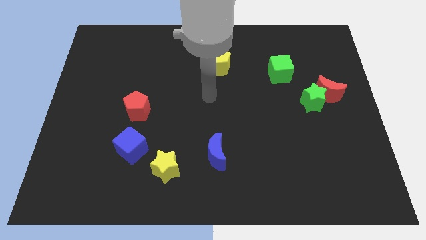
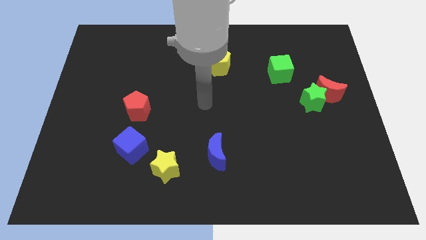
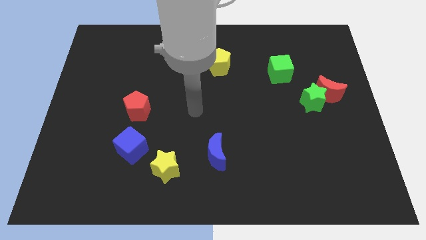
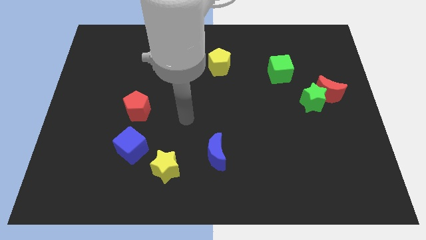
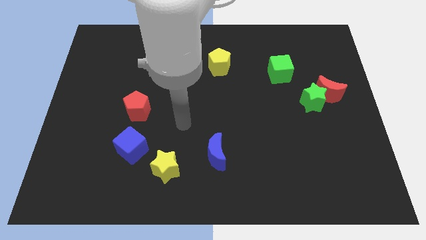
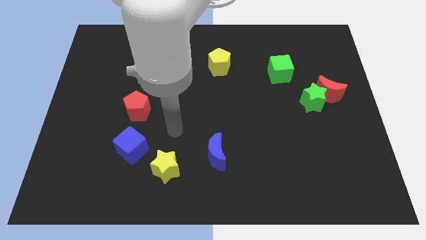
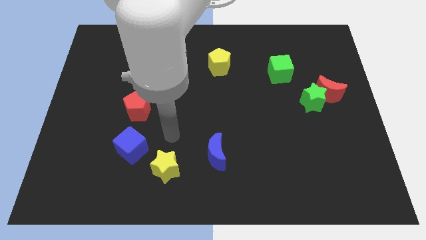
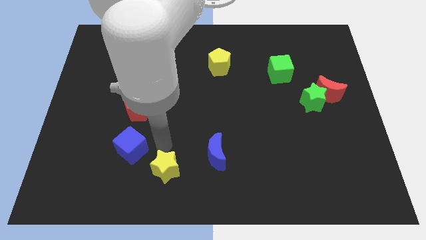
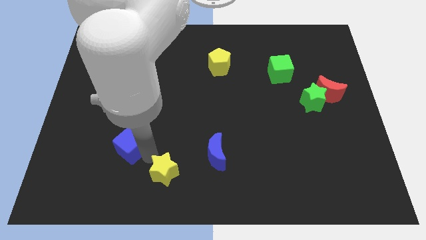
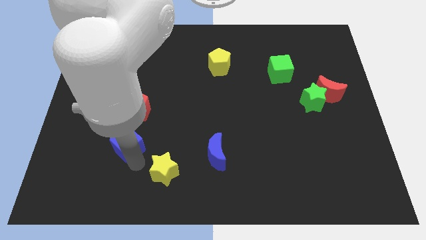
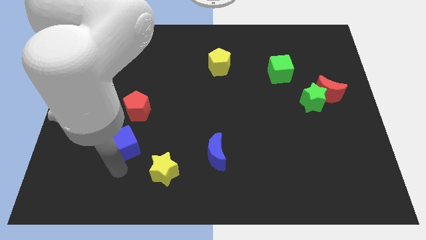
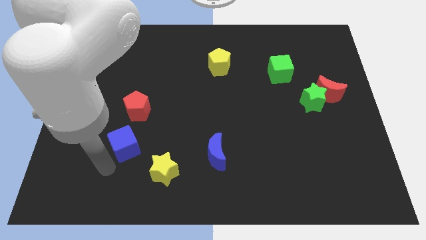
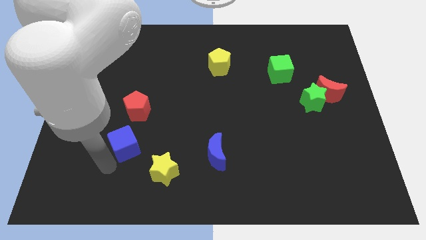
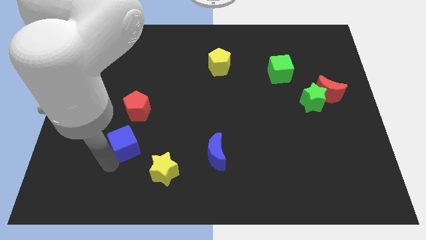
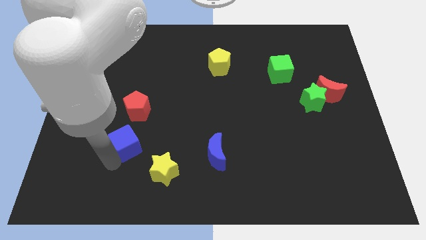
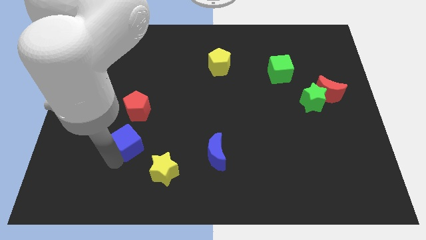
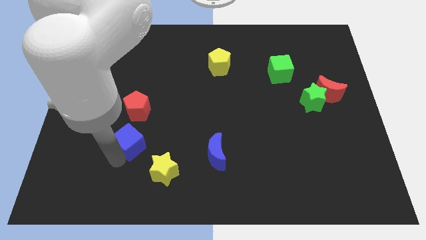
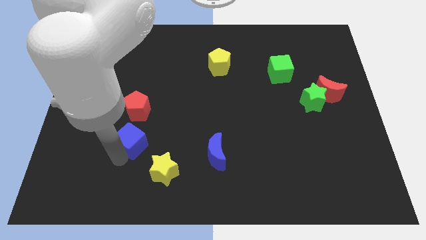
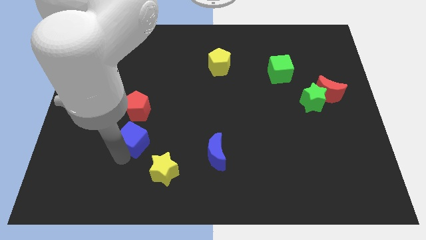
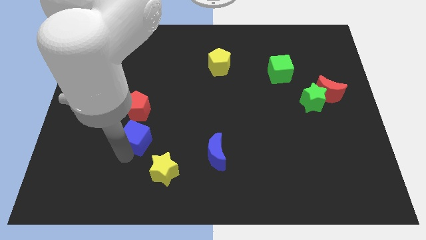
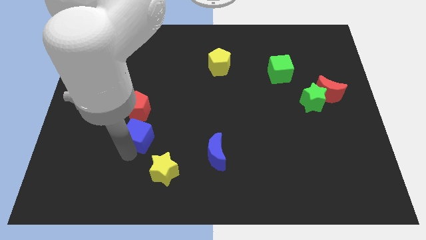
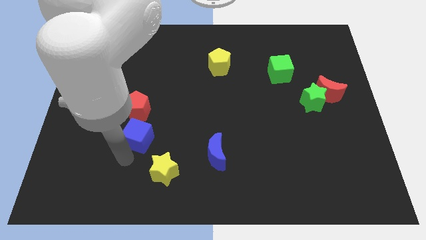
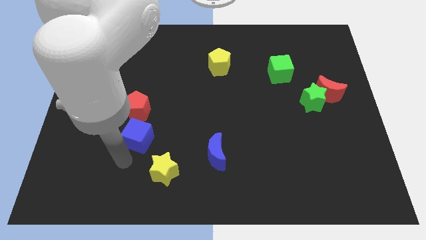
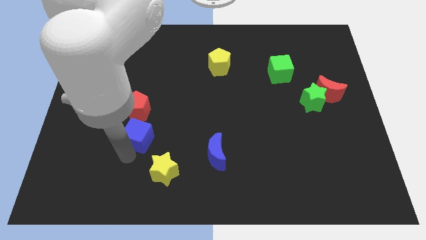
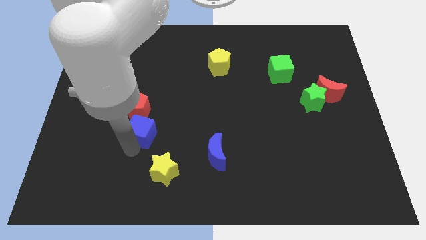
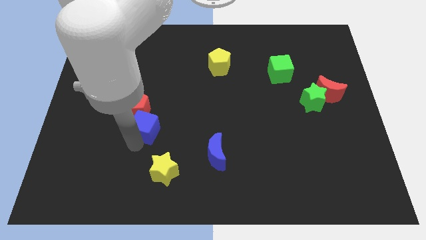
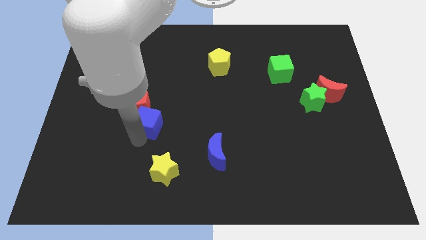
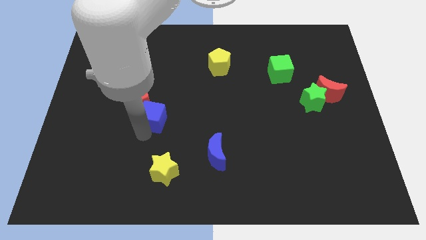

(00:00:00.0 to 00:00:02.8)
move the blue cube up somewhat

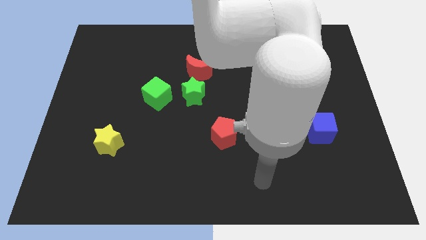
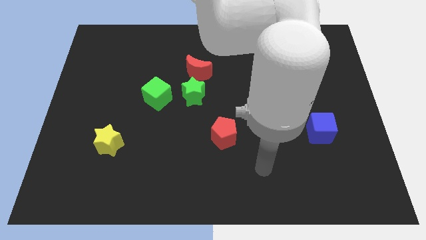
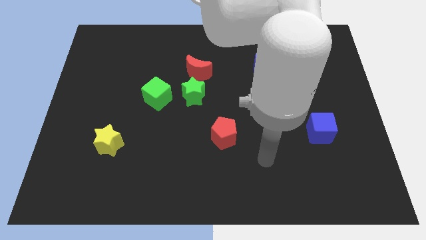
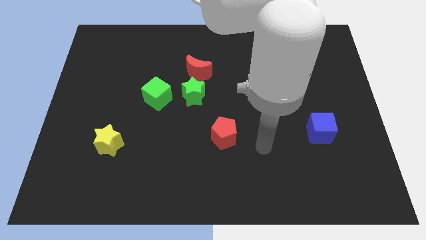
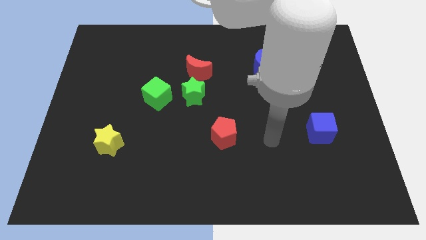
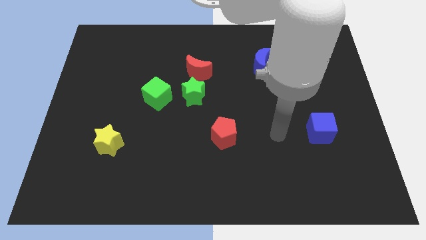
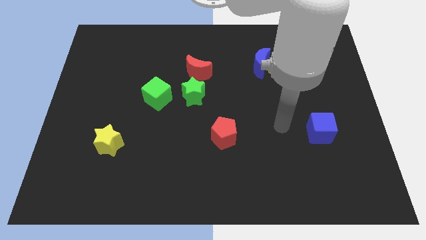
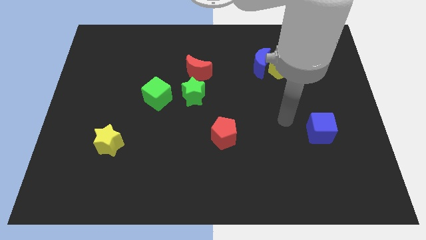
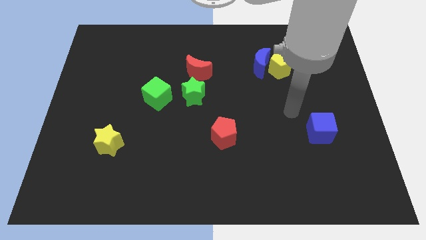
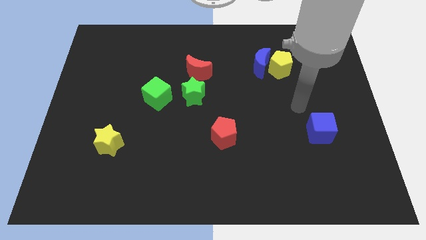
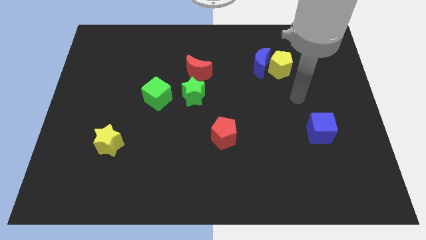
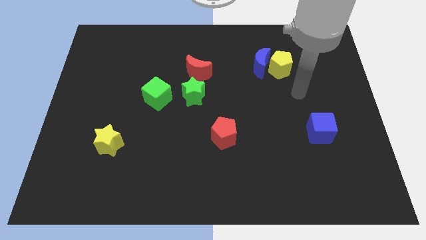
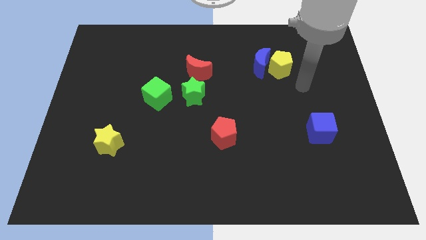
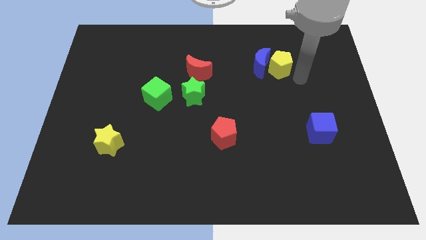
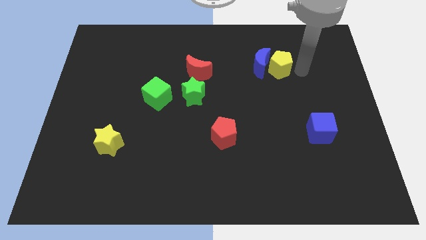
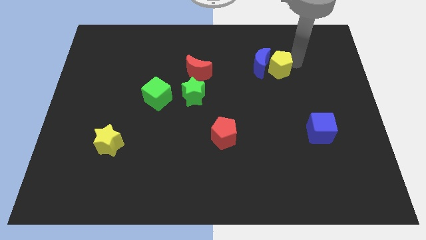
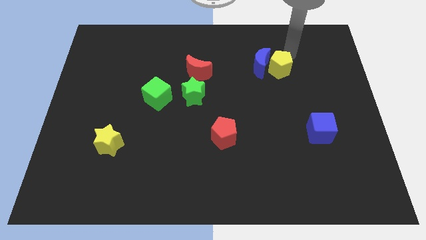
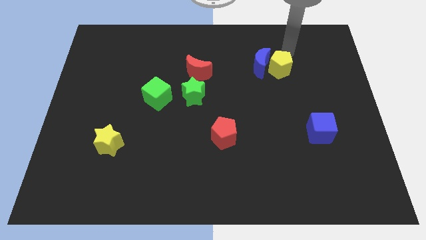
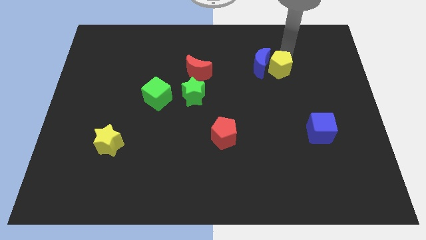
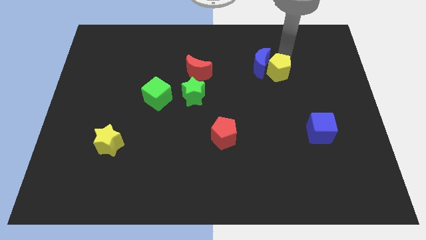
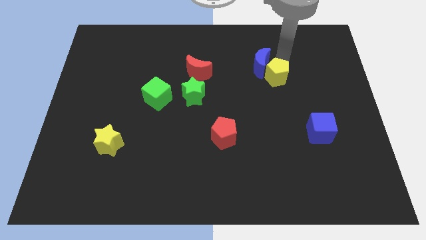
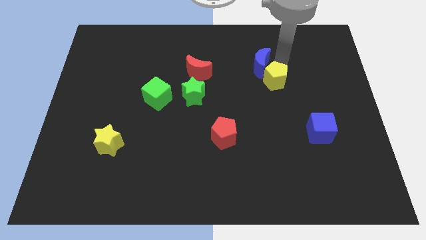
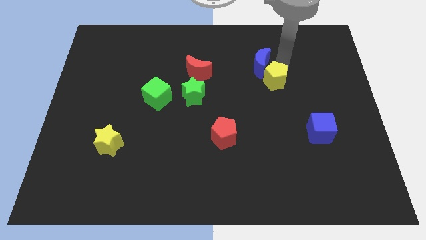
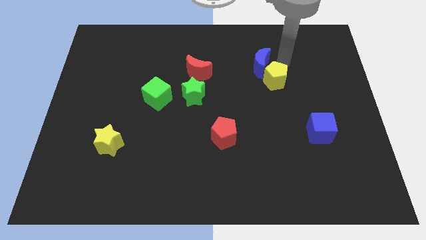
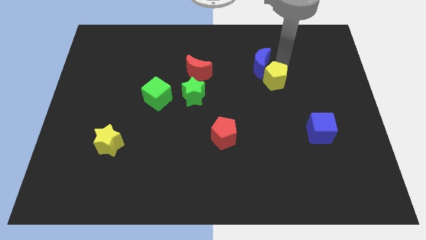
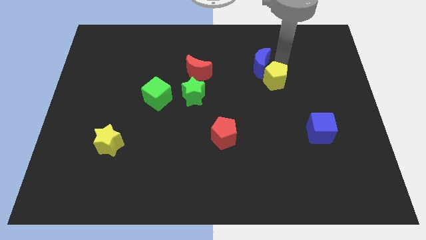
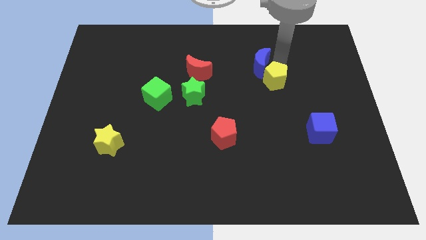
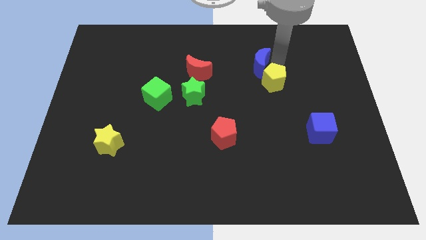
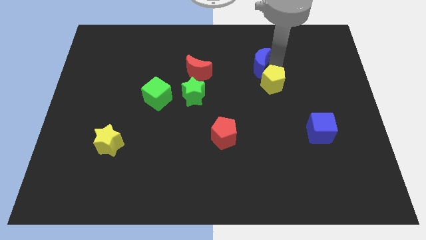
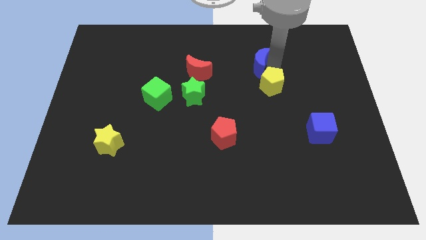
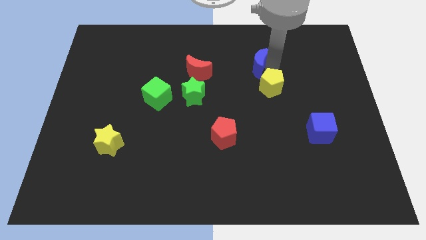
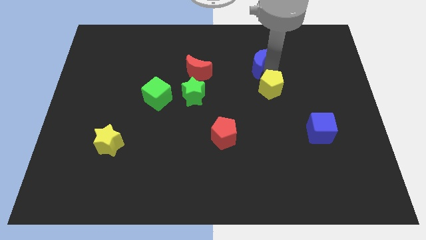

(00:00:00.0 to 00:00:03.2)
slide the yellow pentagon downwards and to the left a bit

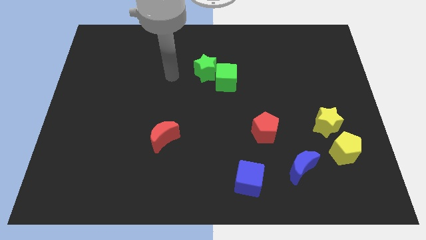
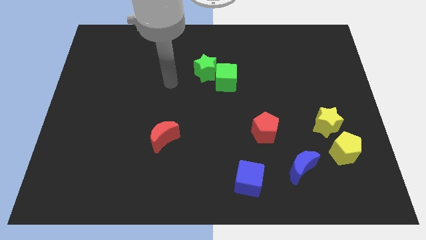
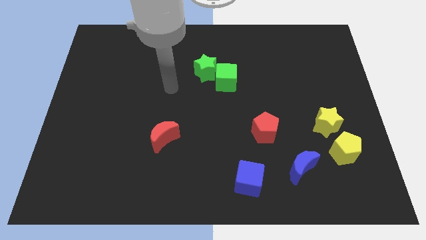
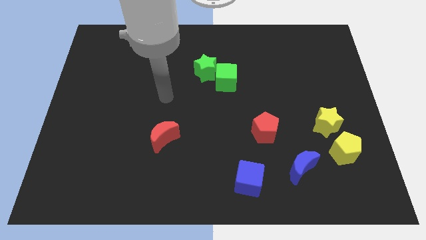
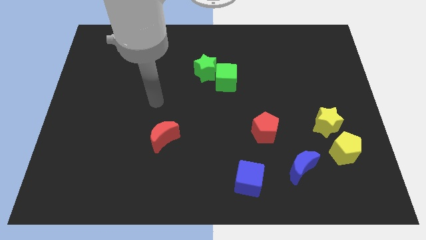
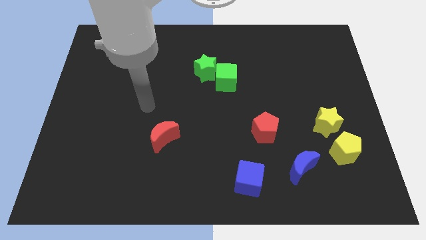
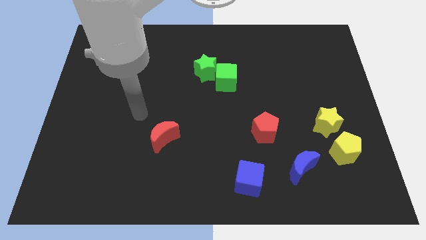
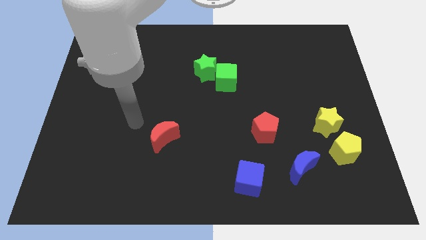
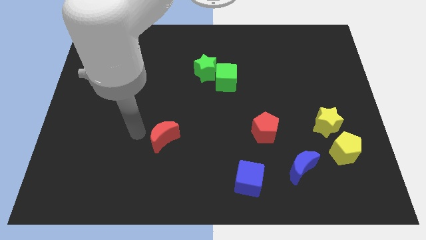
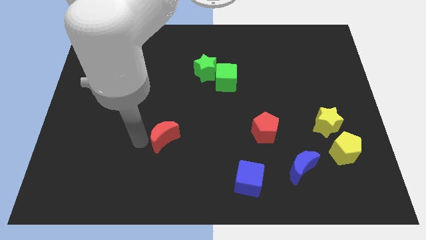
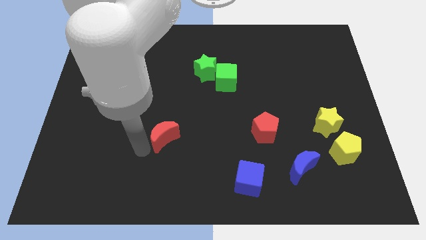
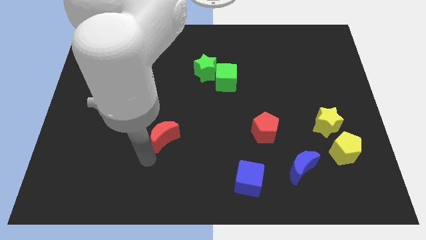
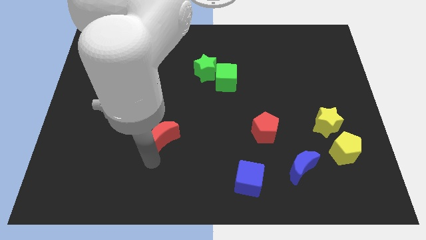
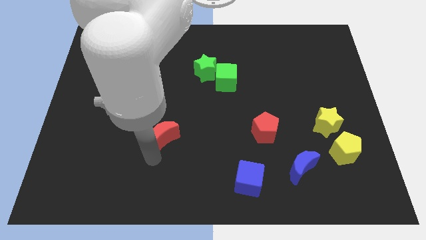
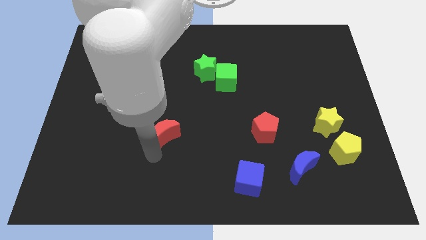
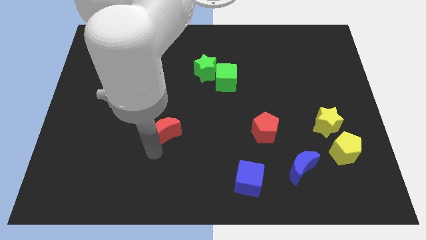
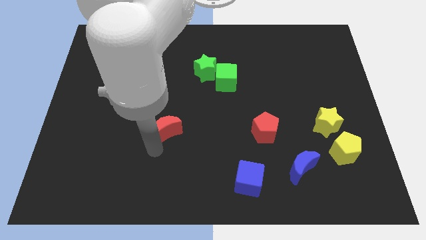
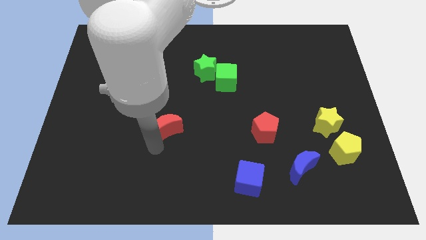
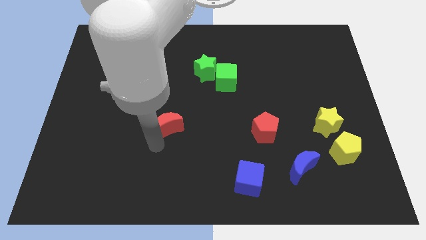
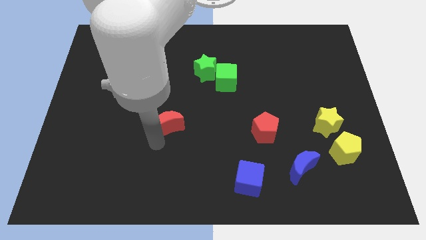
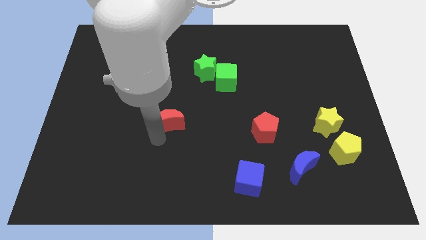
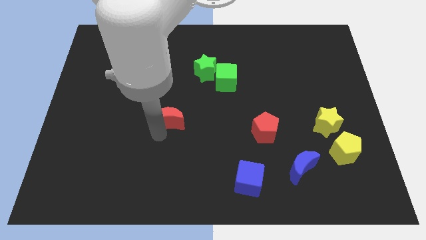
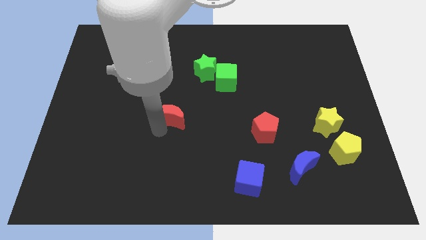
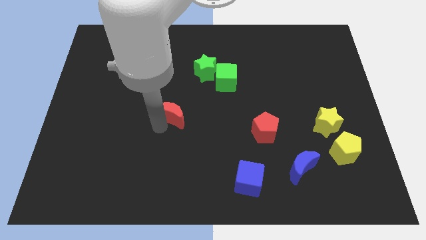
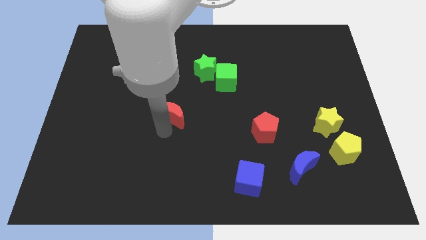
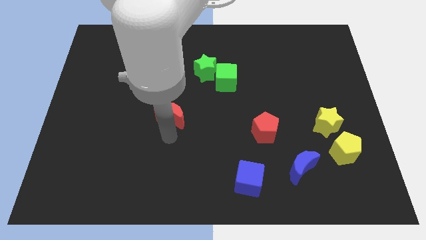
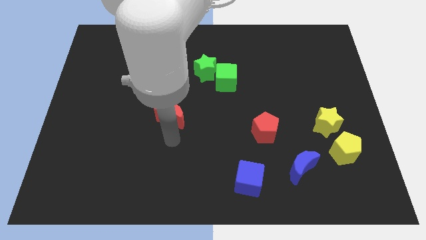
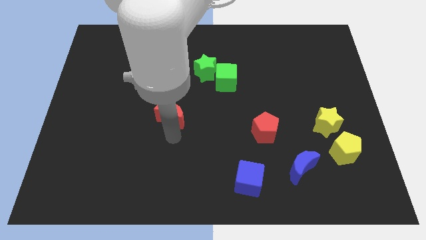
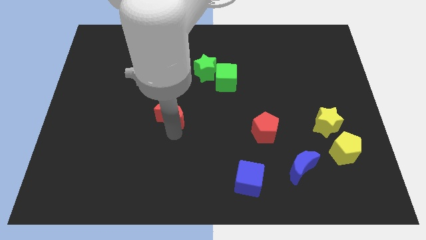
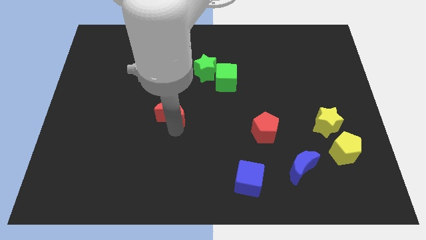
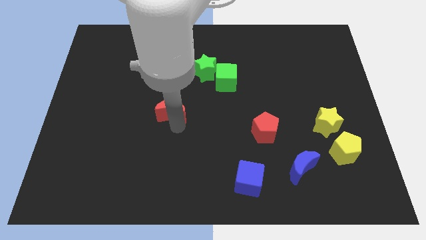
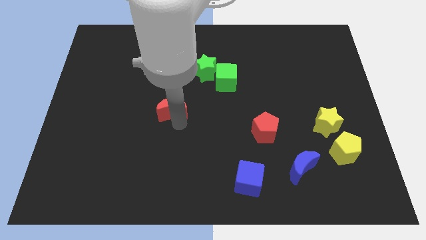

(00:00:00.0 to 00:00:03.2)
slide the red moon upwards slightly
